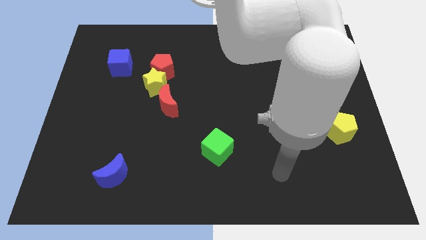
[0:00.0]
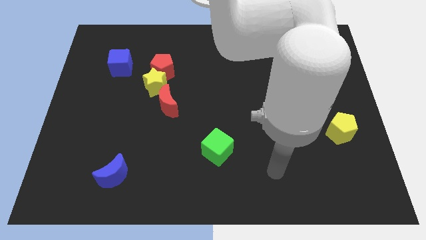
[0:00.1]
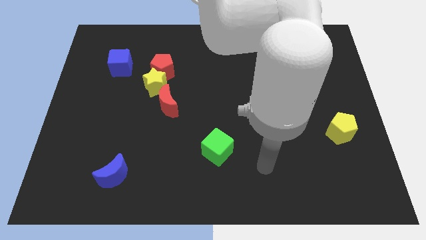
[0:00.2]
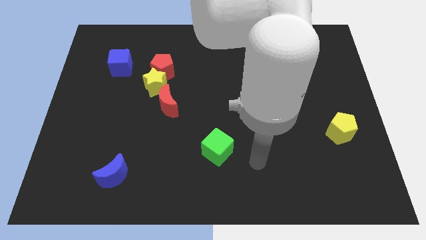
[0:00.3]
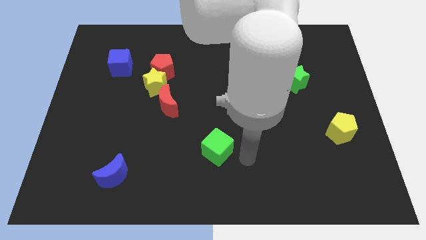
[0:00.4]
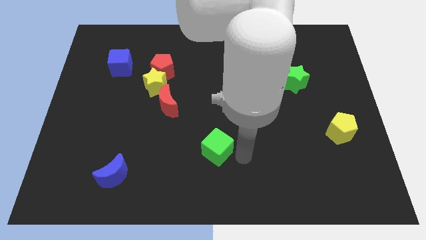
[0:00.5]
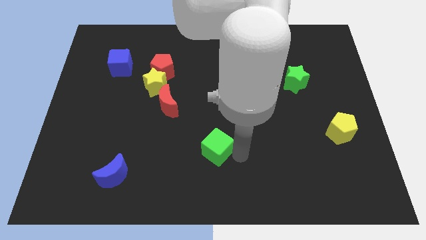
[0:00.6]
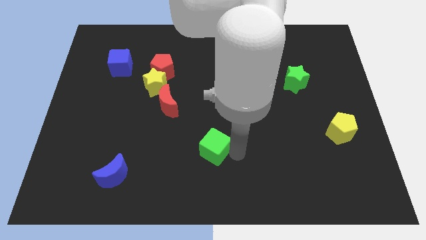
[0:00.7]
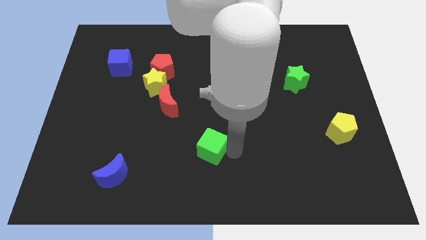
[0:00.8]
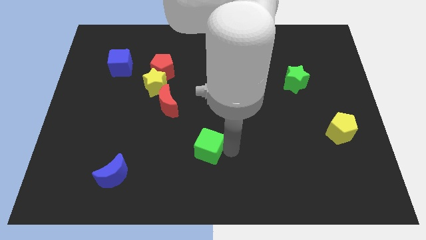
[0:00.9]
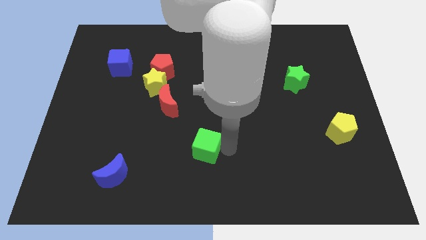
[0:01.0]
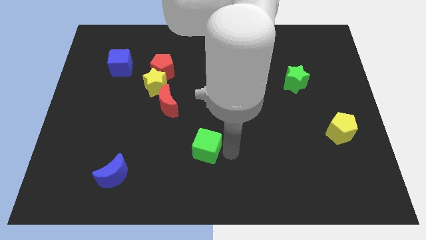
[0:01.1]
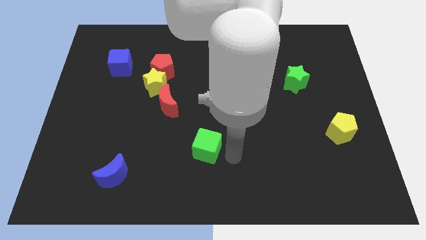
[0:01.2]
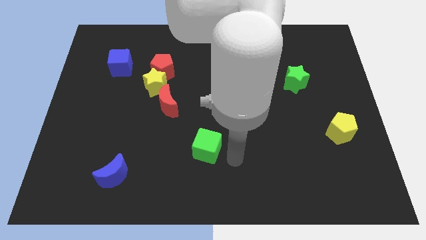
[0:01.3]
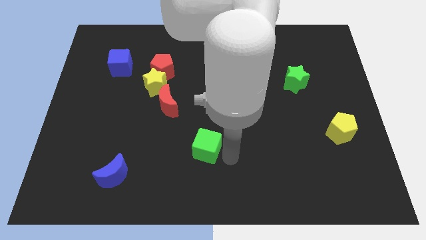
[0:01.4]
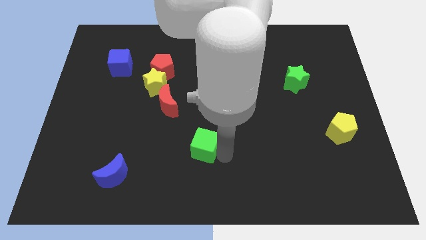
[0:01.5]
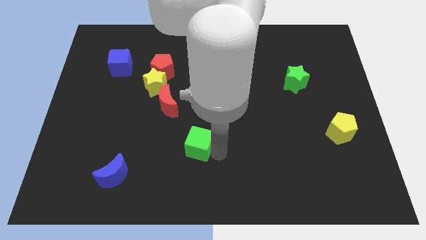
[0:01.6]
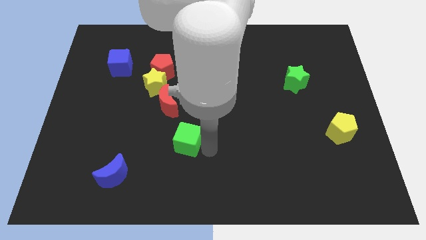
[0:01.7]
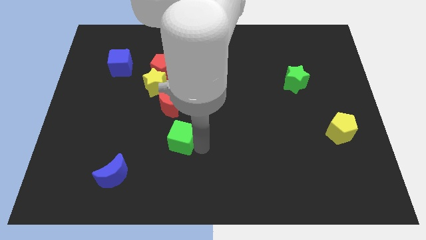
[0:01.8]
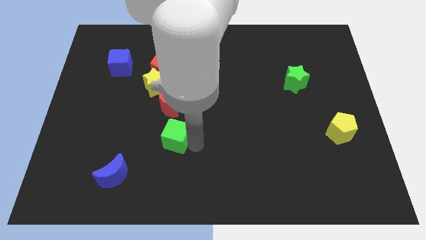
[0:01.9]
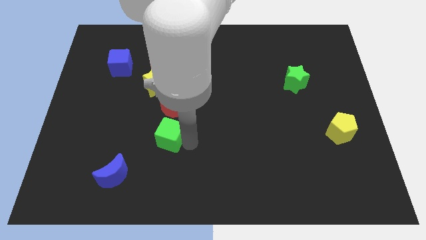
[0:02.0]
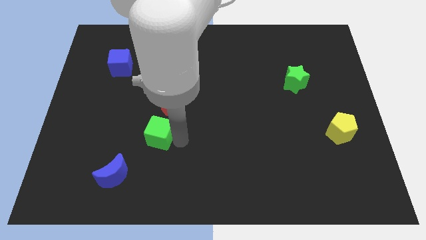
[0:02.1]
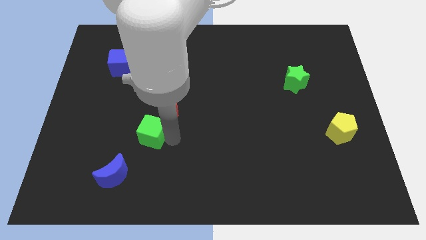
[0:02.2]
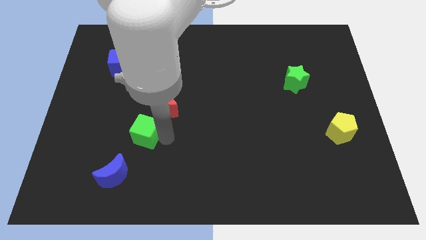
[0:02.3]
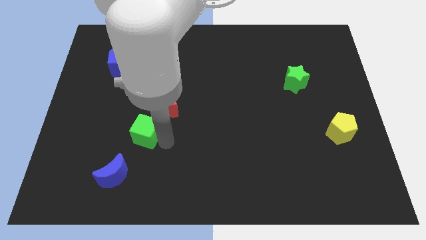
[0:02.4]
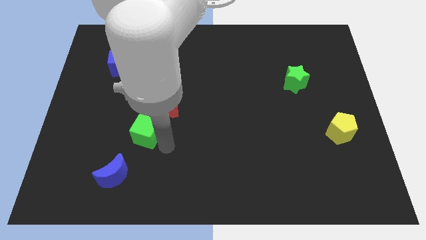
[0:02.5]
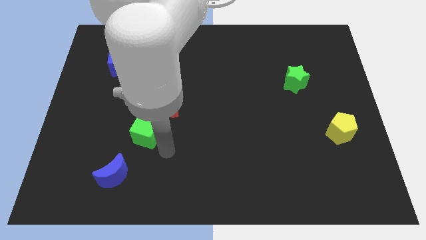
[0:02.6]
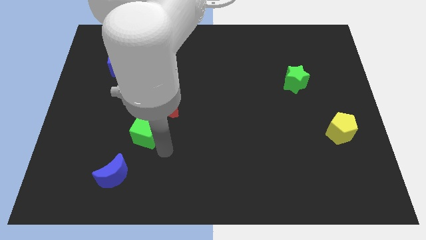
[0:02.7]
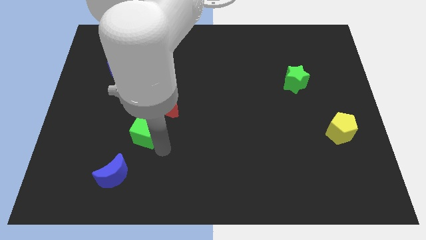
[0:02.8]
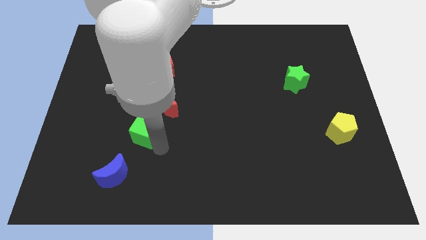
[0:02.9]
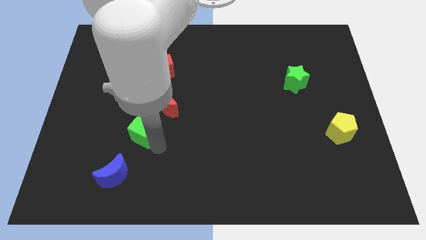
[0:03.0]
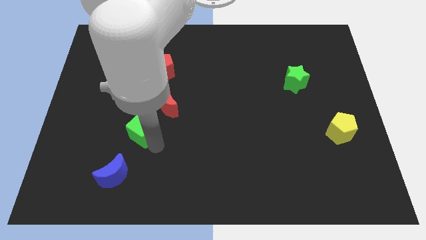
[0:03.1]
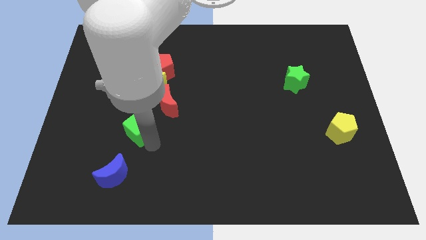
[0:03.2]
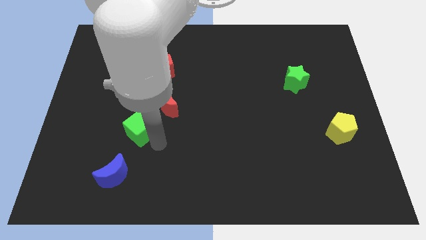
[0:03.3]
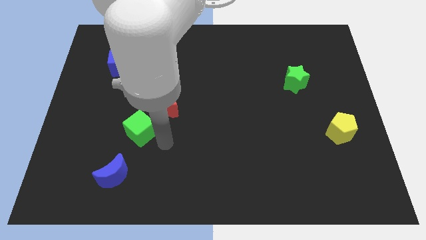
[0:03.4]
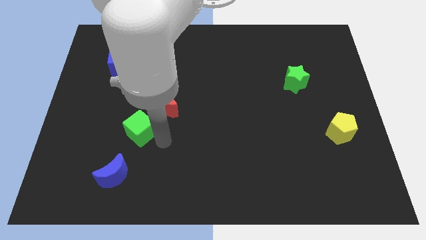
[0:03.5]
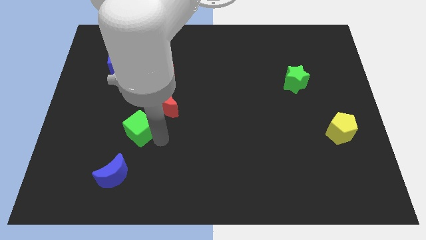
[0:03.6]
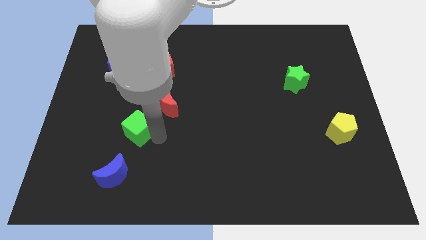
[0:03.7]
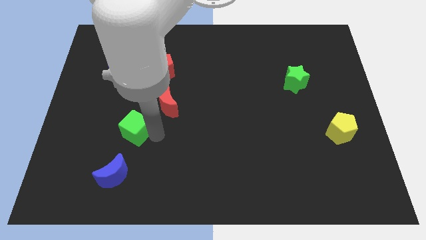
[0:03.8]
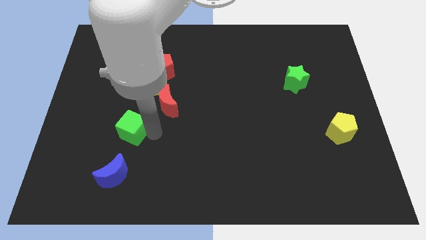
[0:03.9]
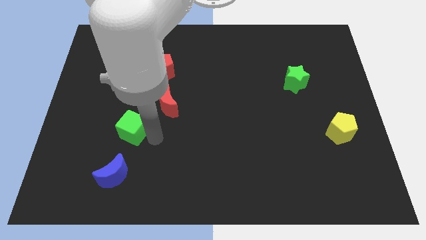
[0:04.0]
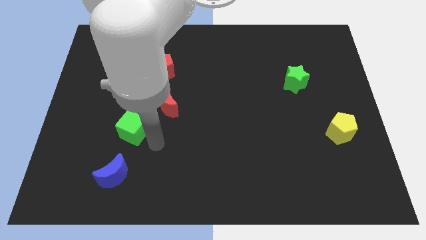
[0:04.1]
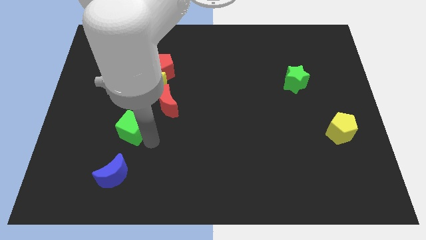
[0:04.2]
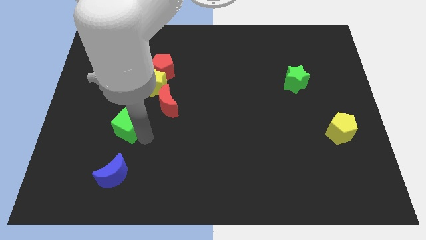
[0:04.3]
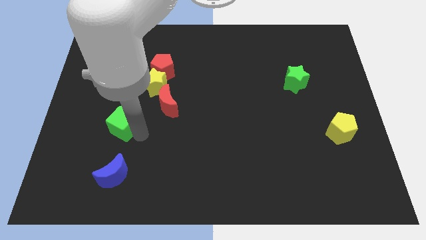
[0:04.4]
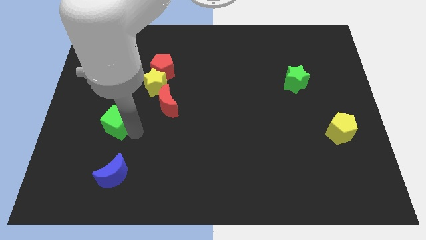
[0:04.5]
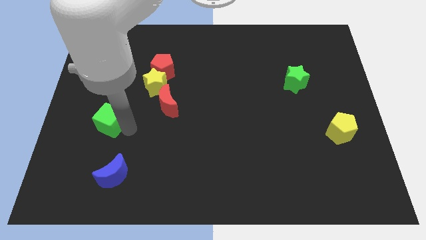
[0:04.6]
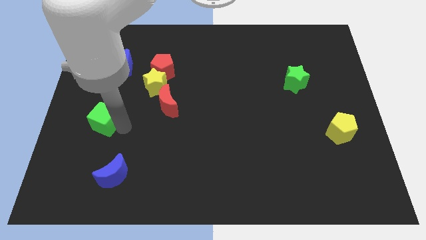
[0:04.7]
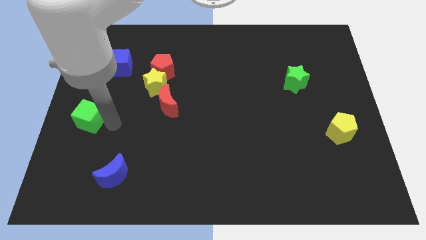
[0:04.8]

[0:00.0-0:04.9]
put the green cube to the left side of the board

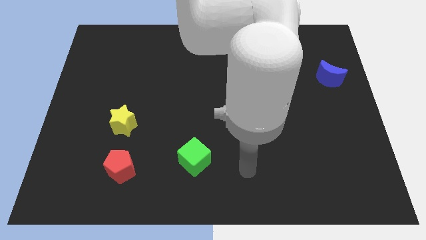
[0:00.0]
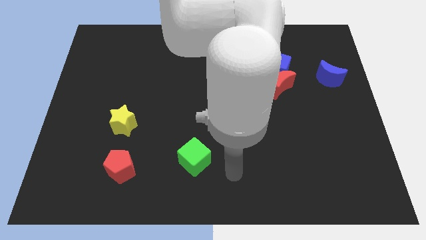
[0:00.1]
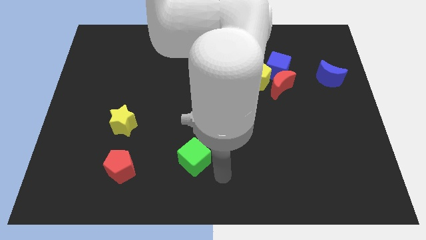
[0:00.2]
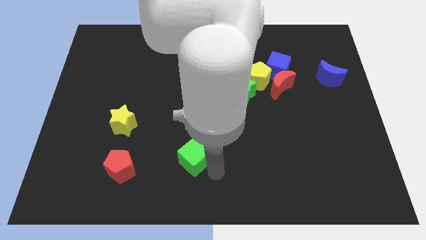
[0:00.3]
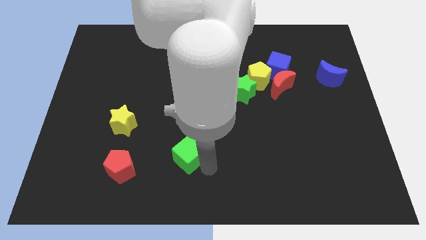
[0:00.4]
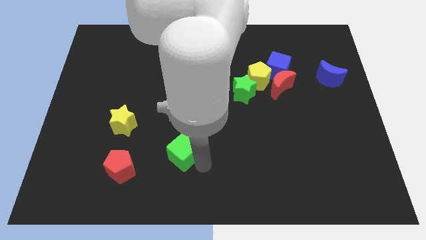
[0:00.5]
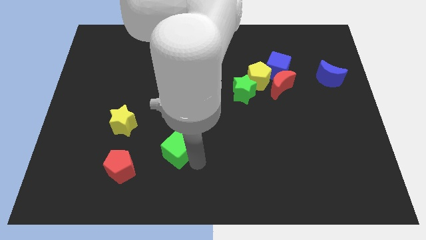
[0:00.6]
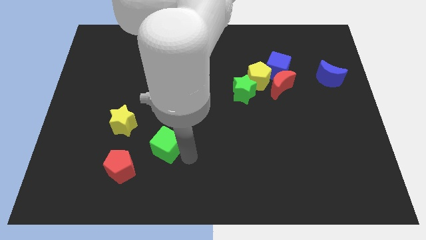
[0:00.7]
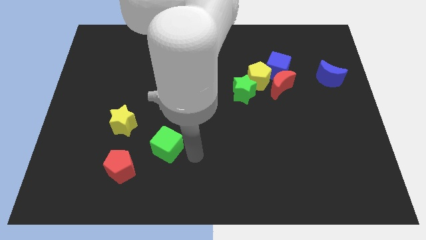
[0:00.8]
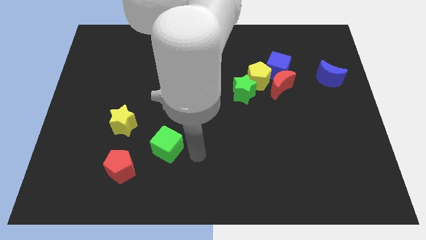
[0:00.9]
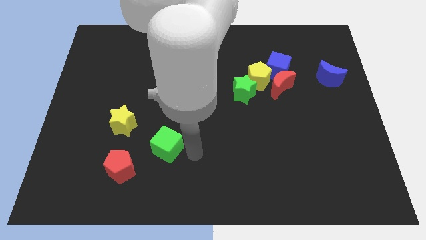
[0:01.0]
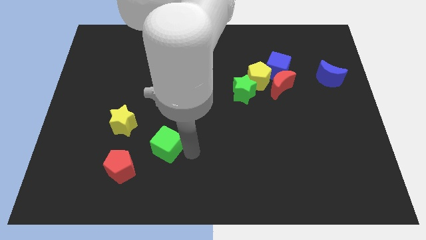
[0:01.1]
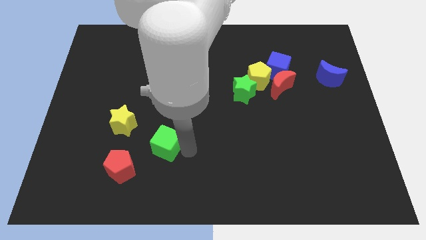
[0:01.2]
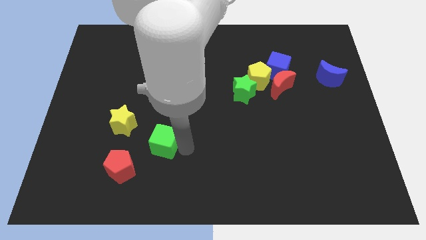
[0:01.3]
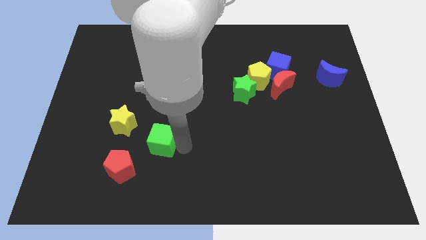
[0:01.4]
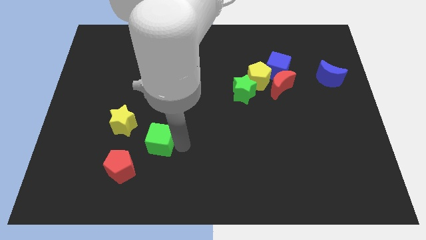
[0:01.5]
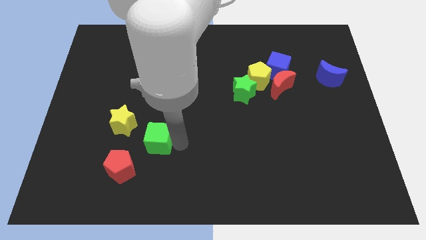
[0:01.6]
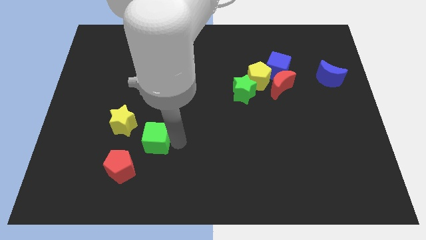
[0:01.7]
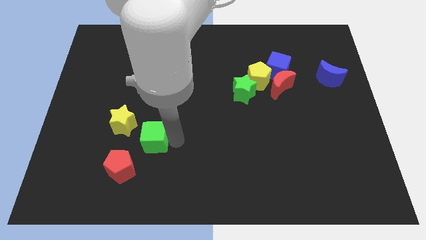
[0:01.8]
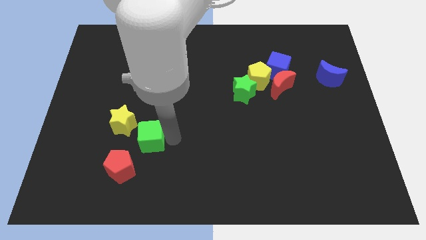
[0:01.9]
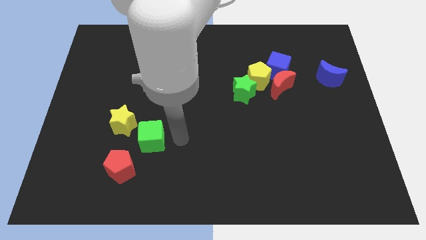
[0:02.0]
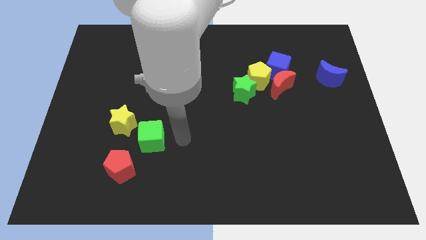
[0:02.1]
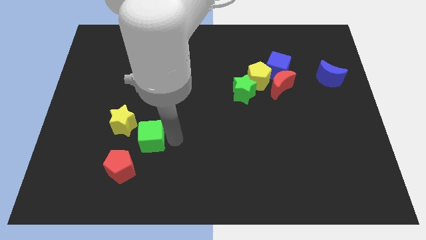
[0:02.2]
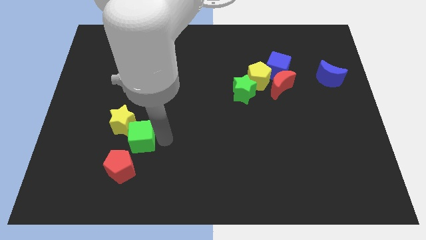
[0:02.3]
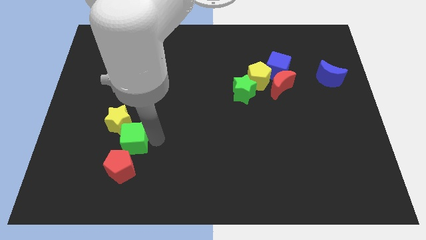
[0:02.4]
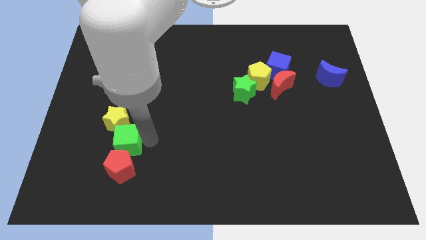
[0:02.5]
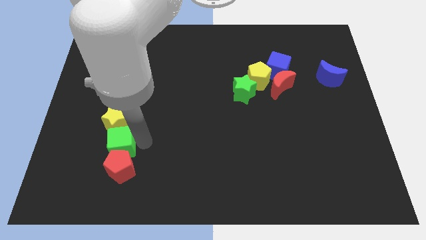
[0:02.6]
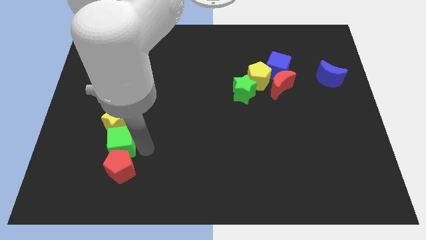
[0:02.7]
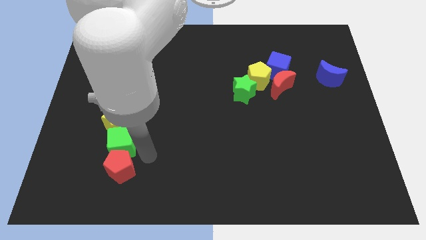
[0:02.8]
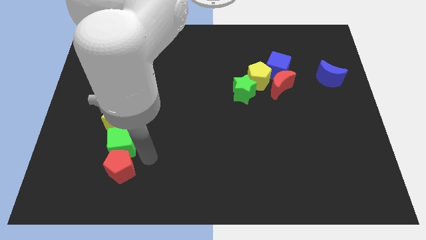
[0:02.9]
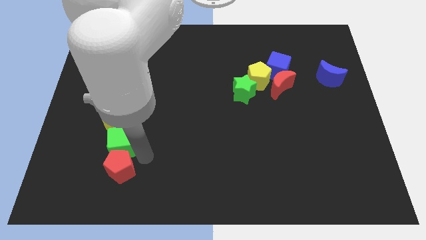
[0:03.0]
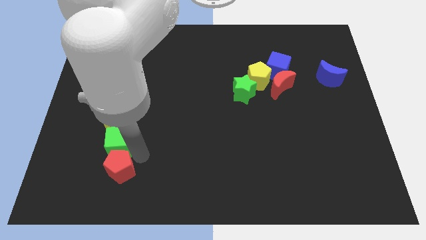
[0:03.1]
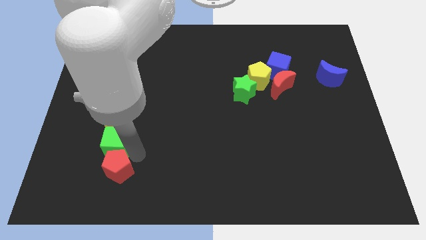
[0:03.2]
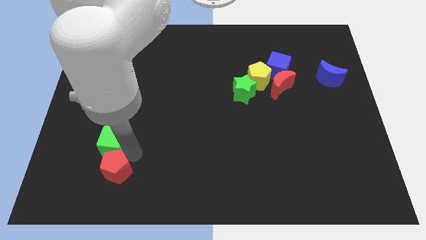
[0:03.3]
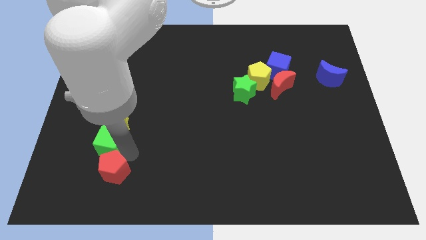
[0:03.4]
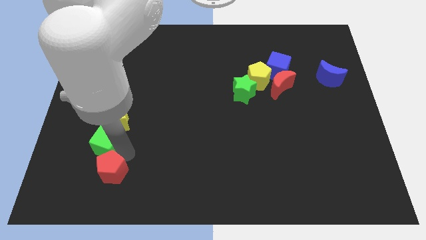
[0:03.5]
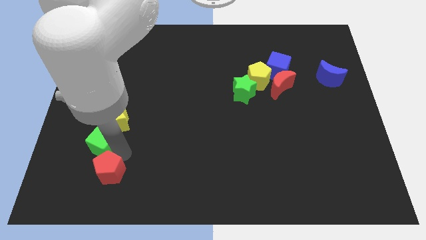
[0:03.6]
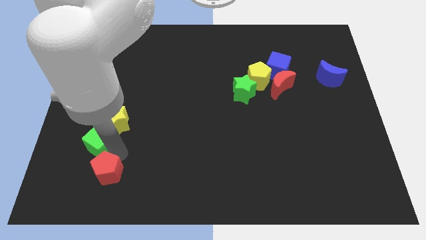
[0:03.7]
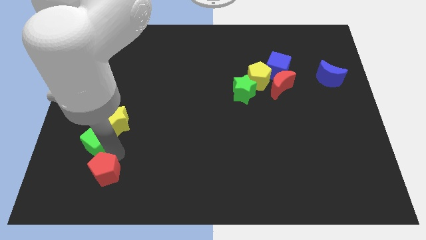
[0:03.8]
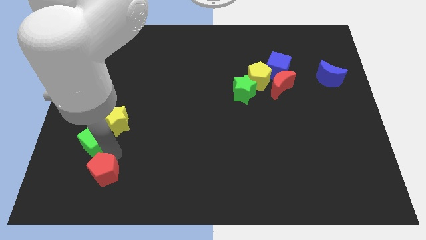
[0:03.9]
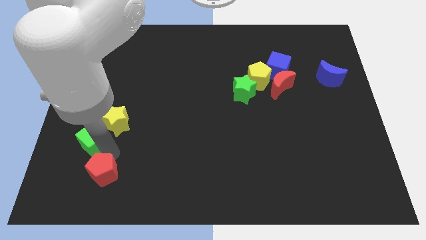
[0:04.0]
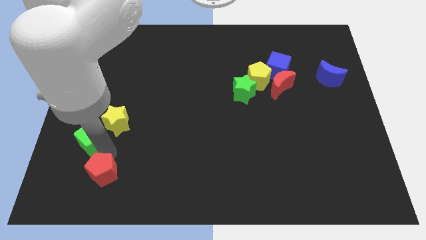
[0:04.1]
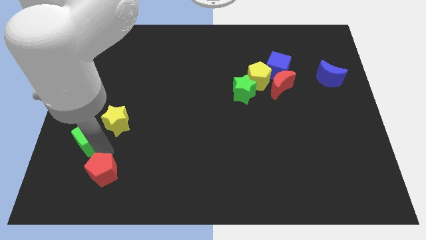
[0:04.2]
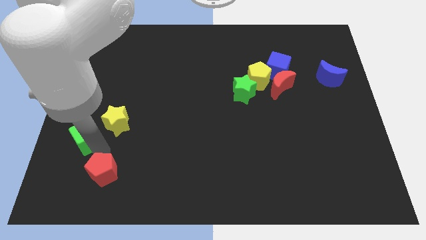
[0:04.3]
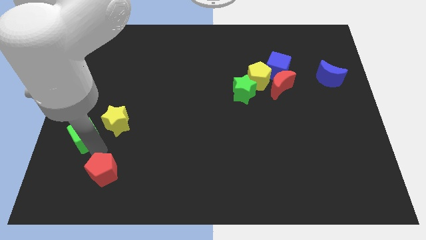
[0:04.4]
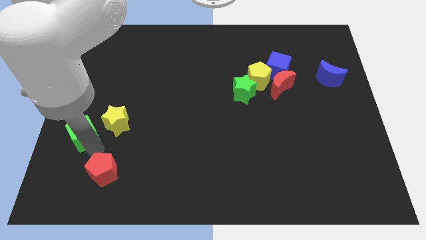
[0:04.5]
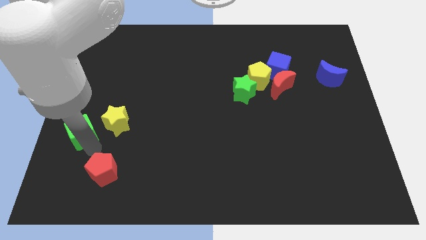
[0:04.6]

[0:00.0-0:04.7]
slide the green cube to the center left
